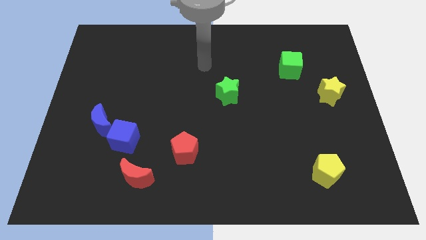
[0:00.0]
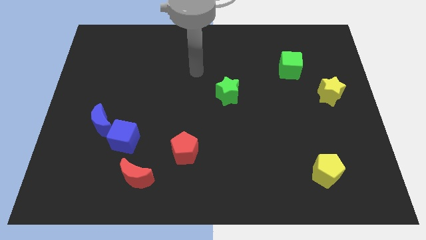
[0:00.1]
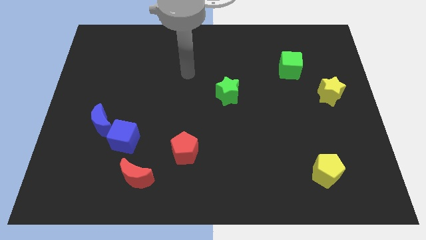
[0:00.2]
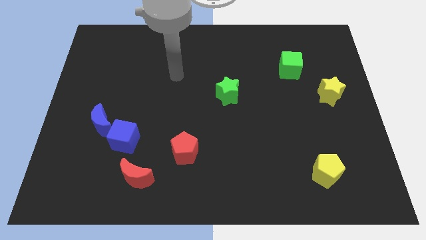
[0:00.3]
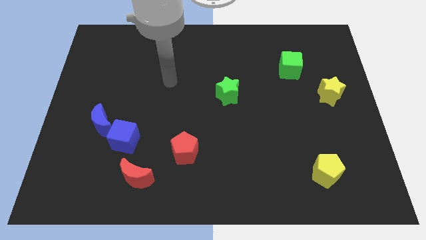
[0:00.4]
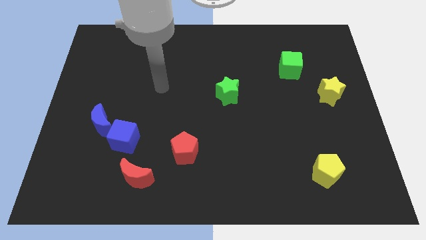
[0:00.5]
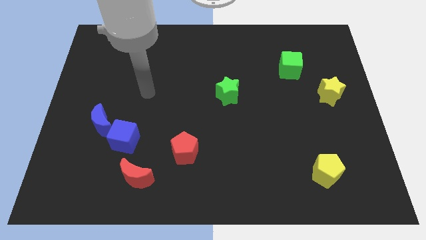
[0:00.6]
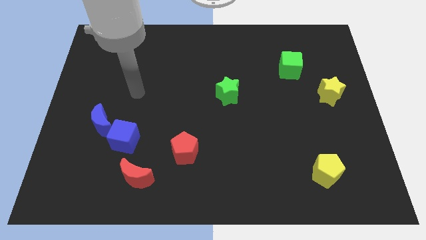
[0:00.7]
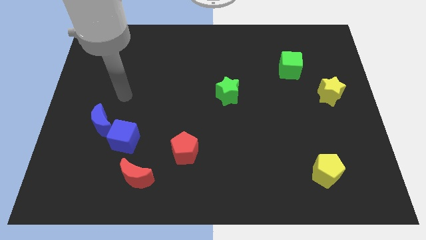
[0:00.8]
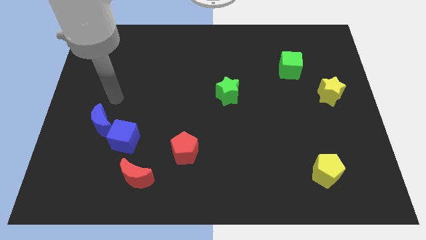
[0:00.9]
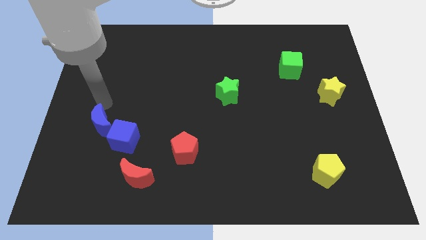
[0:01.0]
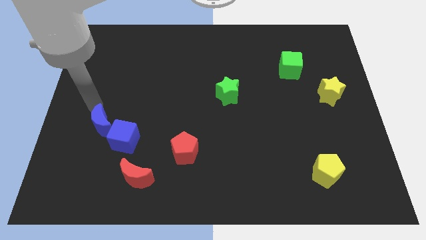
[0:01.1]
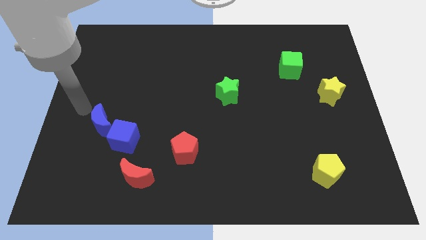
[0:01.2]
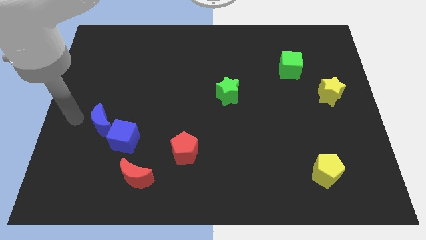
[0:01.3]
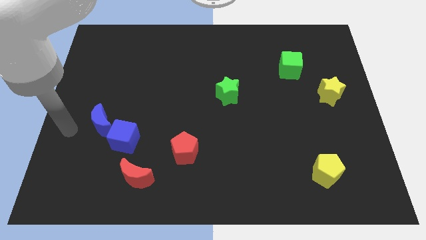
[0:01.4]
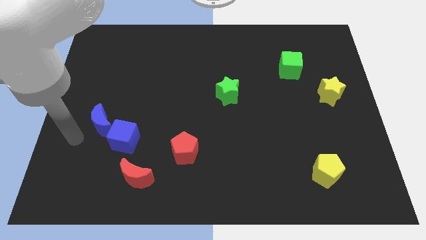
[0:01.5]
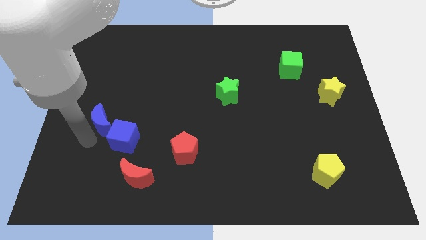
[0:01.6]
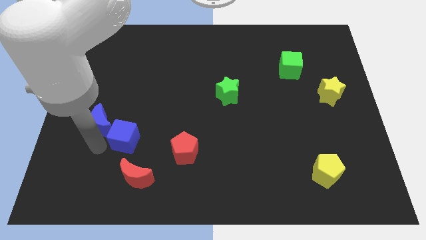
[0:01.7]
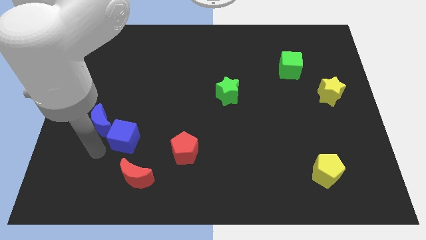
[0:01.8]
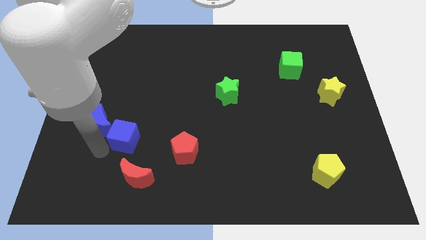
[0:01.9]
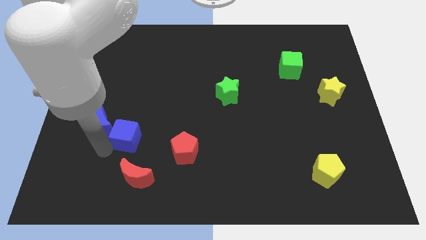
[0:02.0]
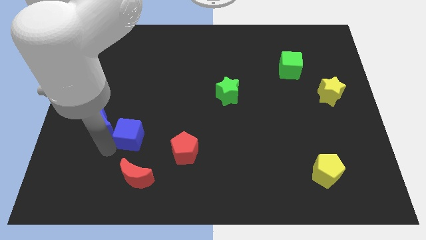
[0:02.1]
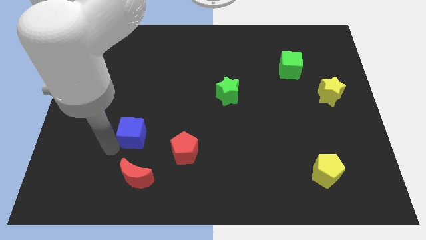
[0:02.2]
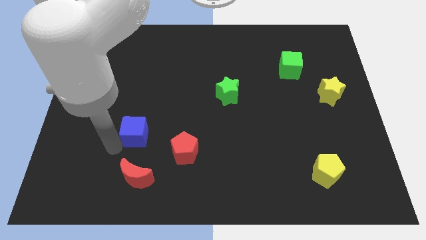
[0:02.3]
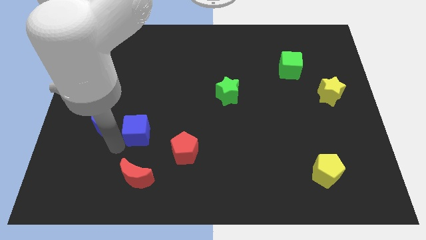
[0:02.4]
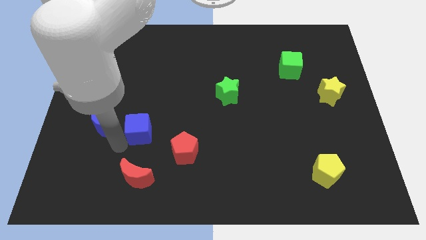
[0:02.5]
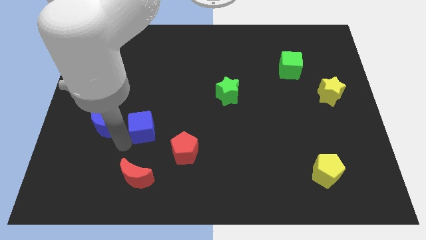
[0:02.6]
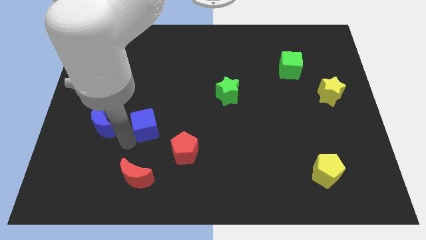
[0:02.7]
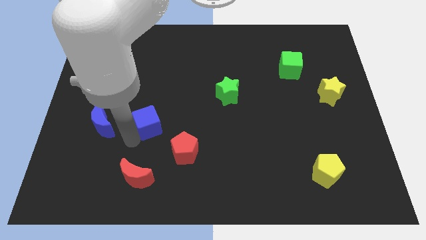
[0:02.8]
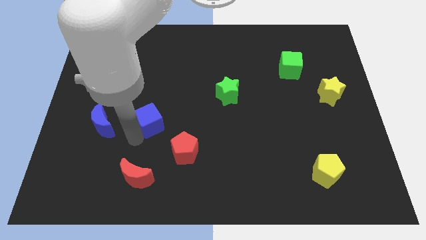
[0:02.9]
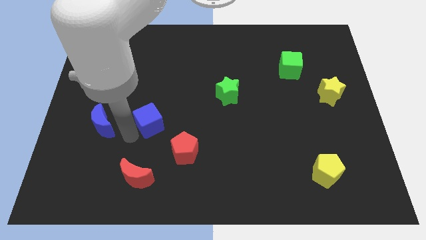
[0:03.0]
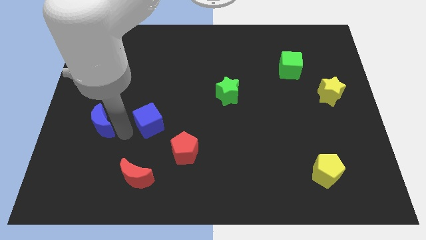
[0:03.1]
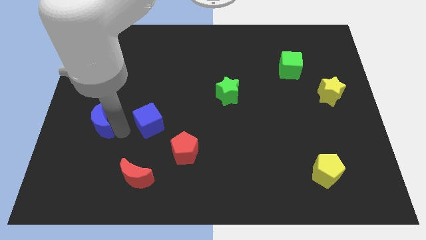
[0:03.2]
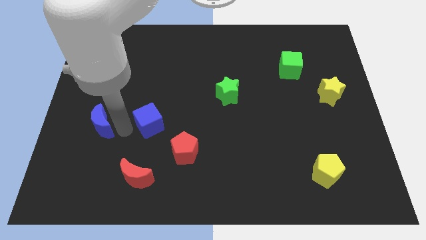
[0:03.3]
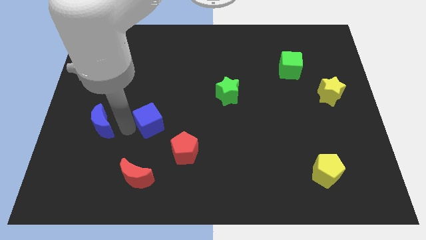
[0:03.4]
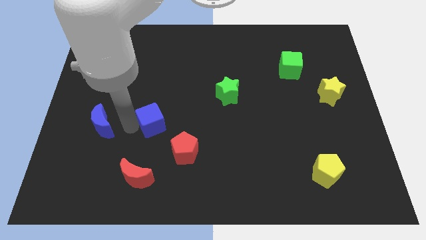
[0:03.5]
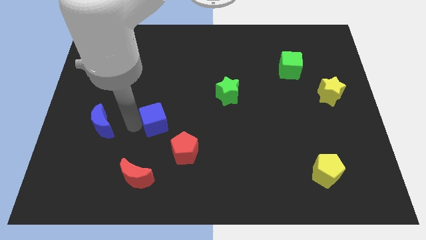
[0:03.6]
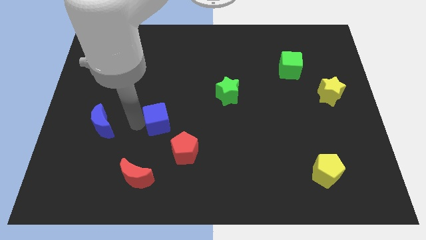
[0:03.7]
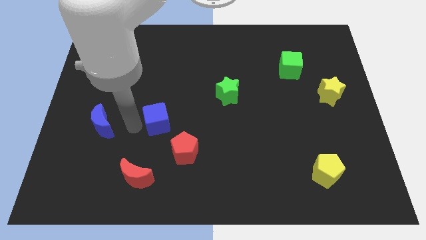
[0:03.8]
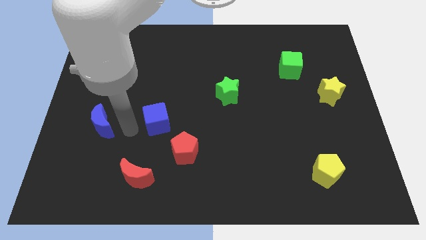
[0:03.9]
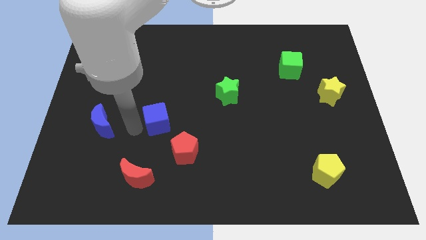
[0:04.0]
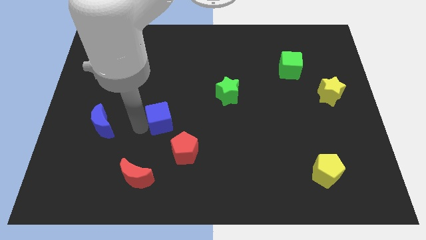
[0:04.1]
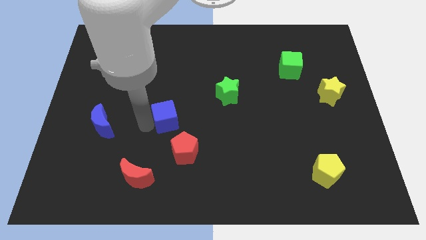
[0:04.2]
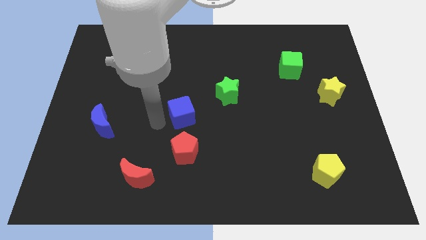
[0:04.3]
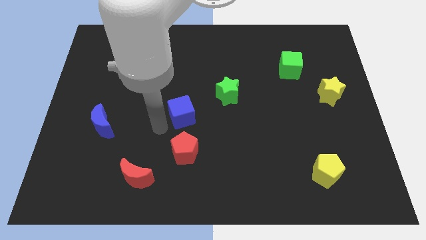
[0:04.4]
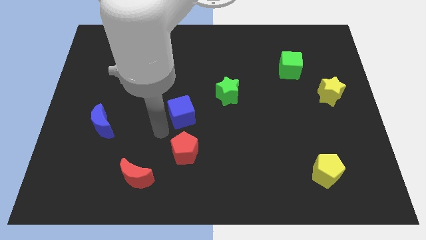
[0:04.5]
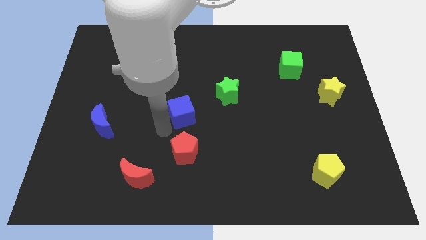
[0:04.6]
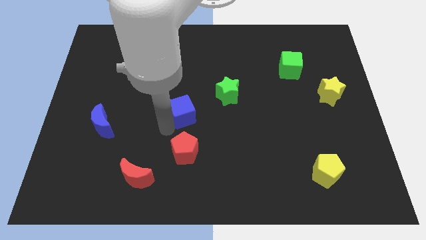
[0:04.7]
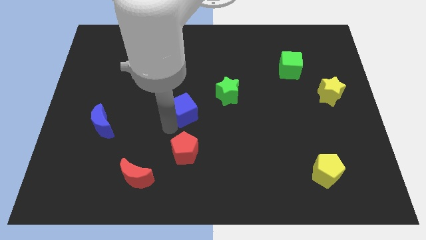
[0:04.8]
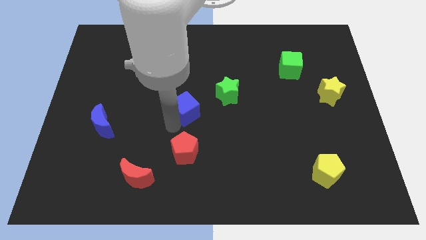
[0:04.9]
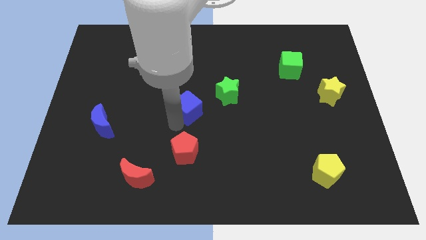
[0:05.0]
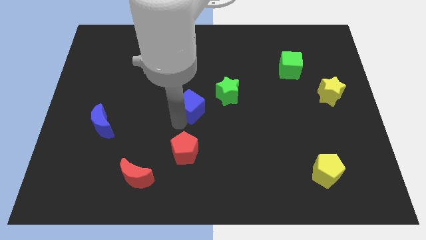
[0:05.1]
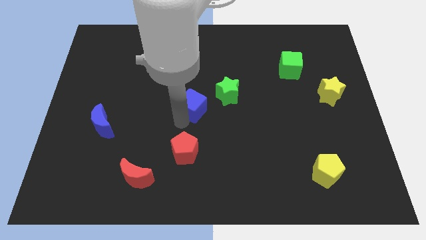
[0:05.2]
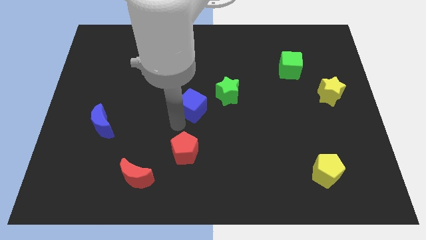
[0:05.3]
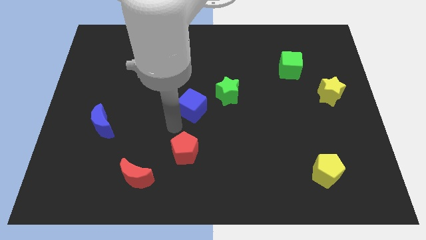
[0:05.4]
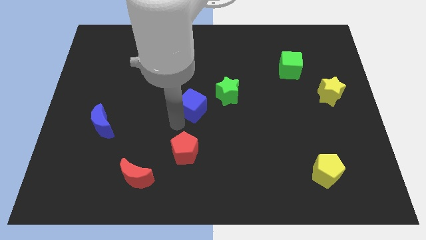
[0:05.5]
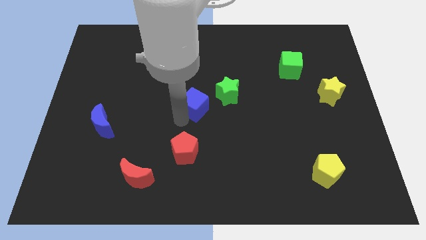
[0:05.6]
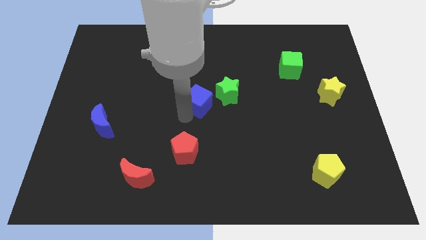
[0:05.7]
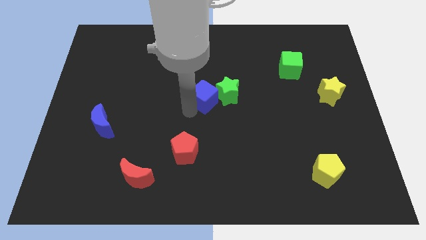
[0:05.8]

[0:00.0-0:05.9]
put the blue cube next to the green star

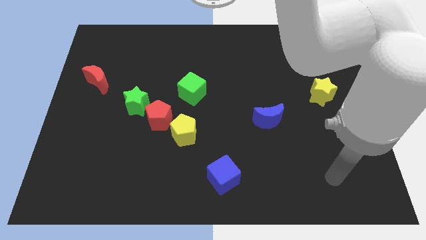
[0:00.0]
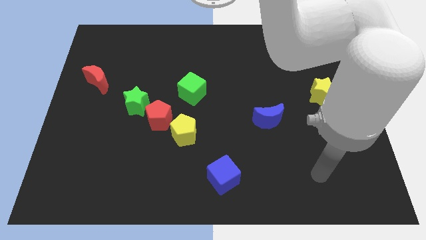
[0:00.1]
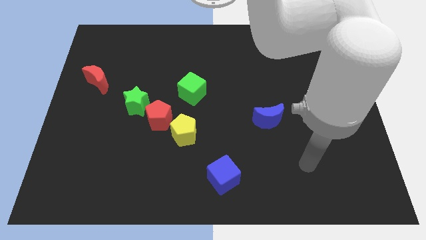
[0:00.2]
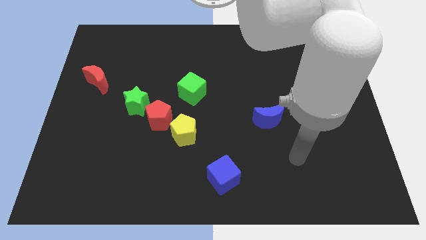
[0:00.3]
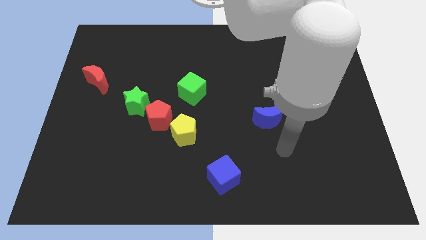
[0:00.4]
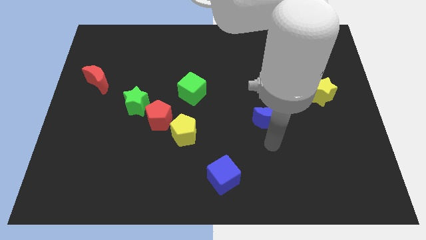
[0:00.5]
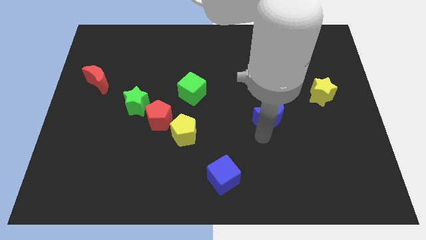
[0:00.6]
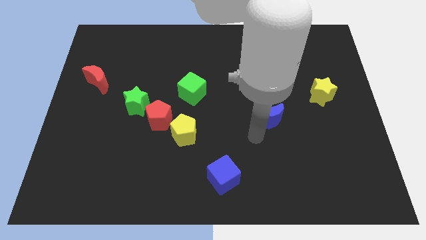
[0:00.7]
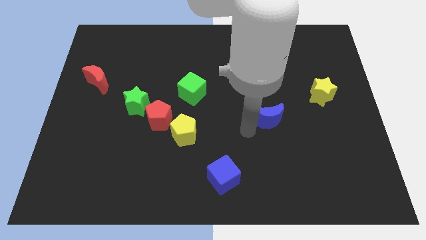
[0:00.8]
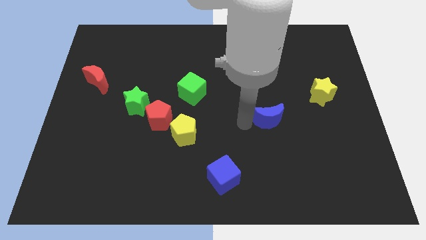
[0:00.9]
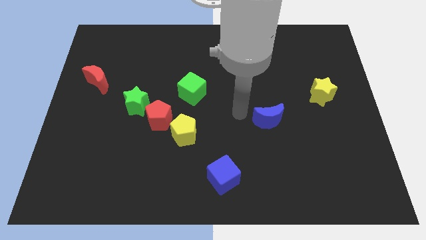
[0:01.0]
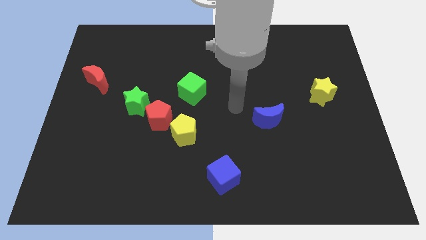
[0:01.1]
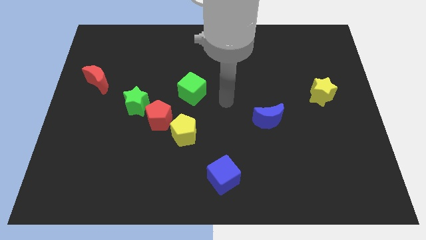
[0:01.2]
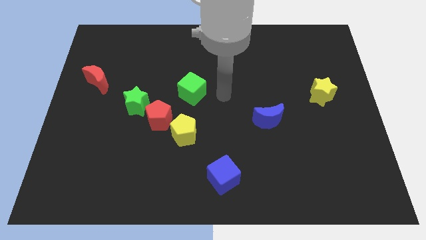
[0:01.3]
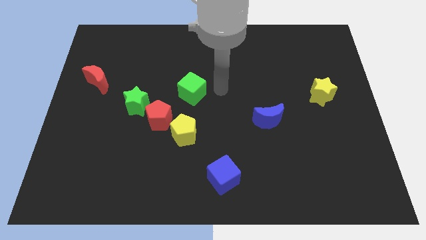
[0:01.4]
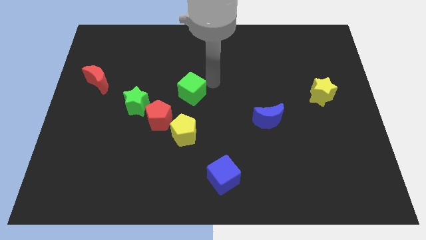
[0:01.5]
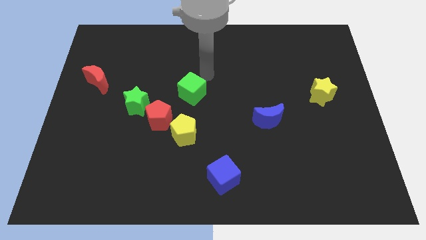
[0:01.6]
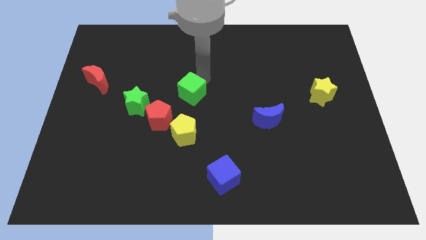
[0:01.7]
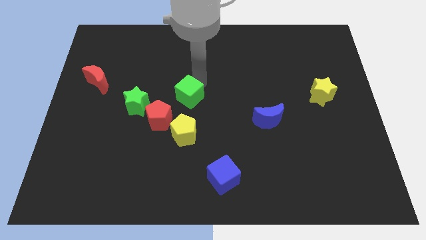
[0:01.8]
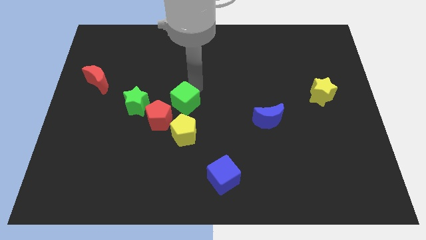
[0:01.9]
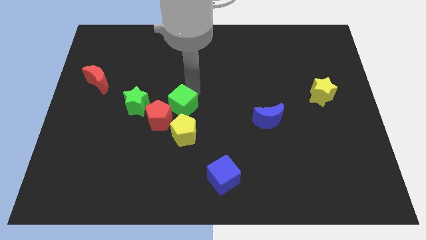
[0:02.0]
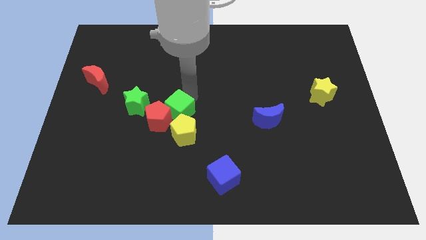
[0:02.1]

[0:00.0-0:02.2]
slide the green cube to the red pentagon
